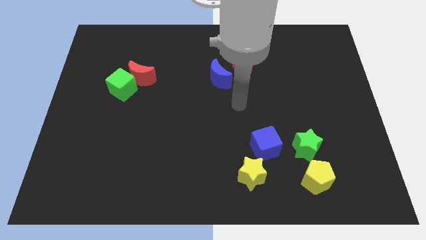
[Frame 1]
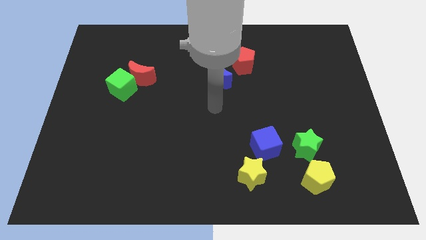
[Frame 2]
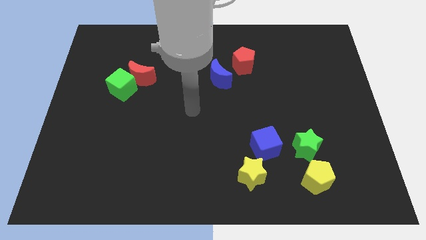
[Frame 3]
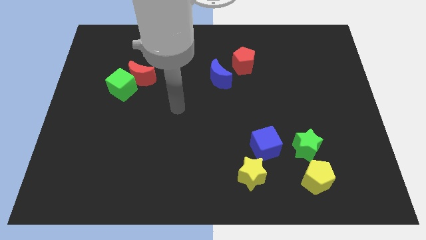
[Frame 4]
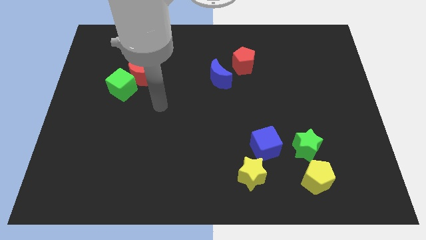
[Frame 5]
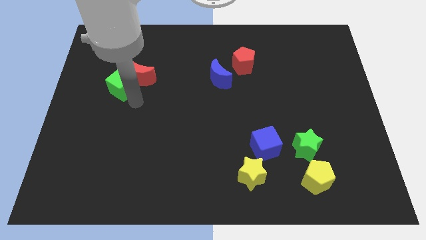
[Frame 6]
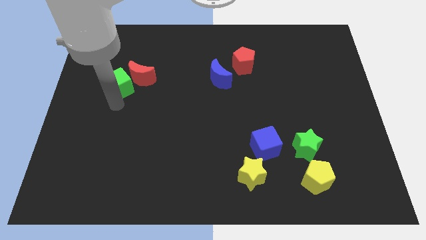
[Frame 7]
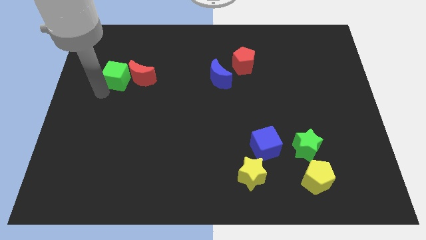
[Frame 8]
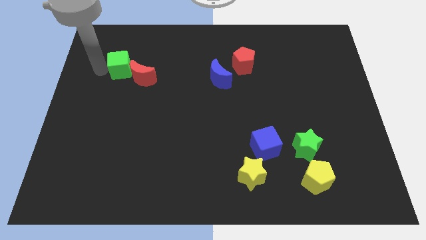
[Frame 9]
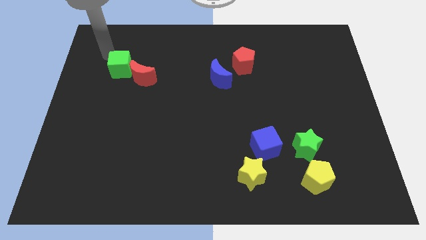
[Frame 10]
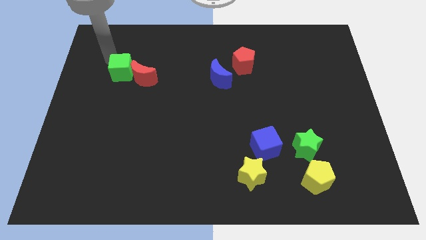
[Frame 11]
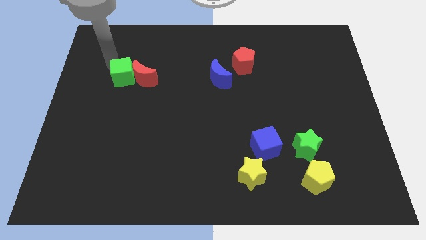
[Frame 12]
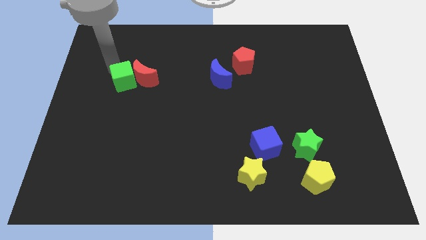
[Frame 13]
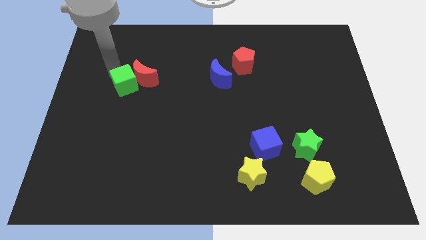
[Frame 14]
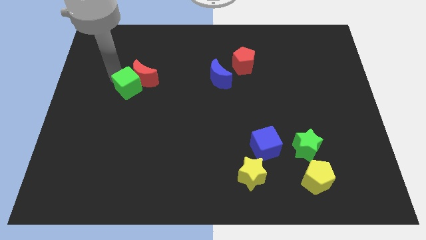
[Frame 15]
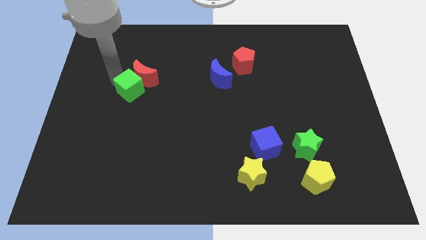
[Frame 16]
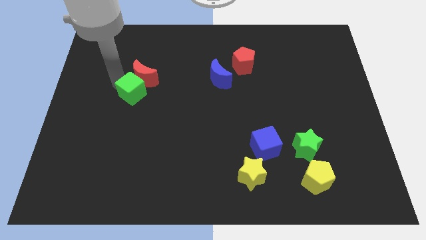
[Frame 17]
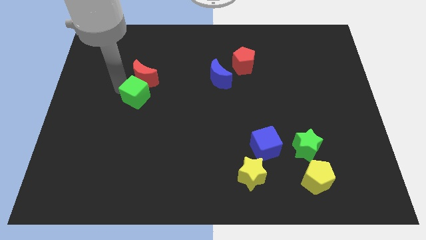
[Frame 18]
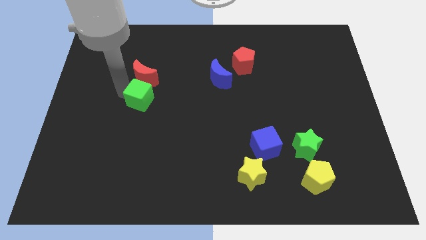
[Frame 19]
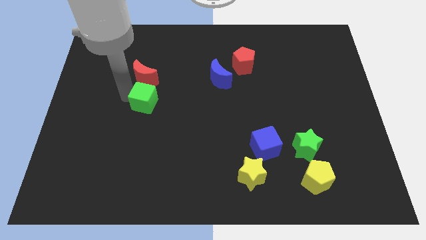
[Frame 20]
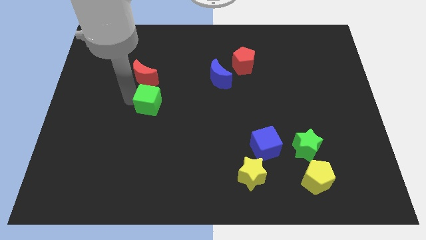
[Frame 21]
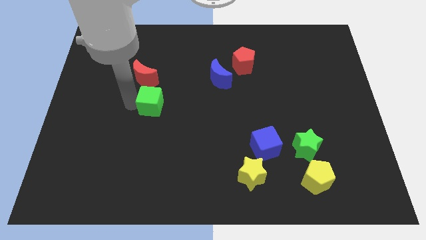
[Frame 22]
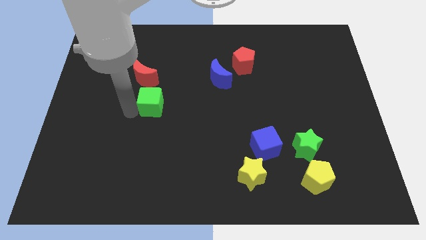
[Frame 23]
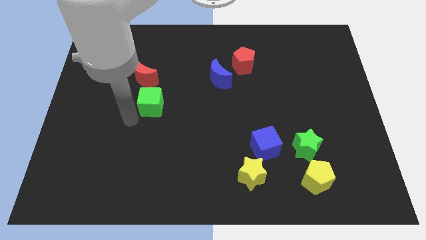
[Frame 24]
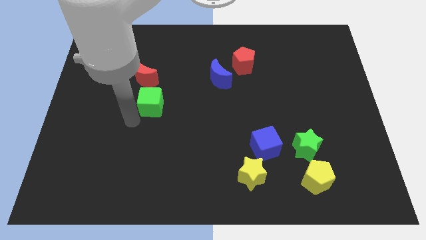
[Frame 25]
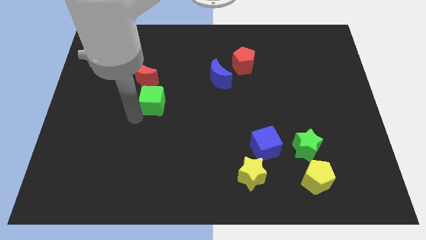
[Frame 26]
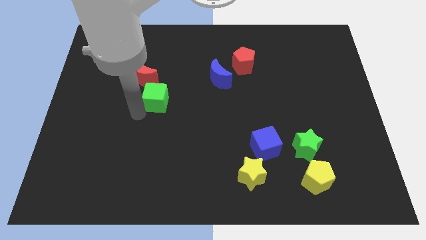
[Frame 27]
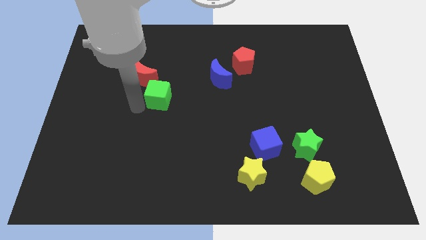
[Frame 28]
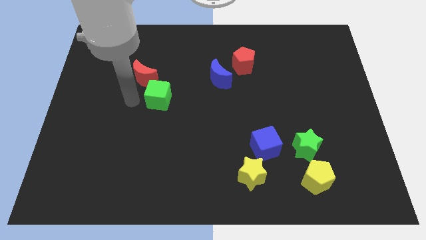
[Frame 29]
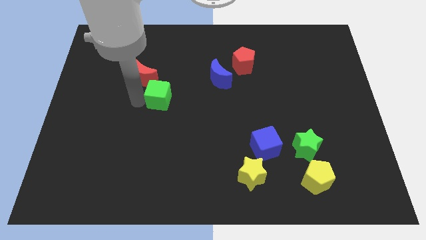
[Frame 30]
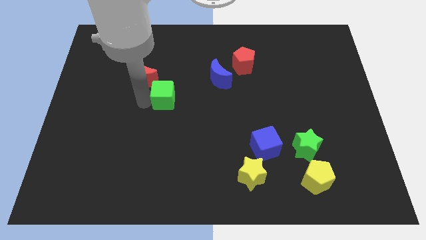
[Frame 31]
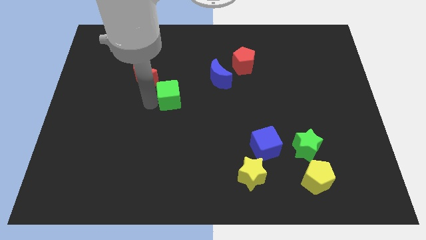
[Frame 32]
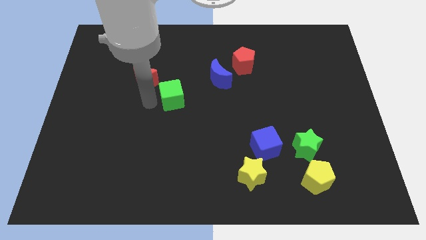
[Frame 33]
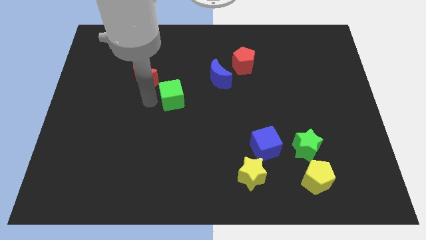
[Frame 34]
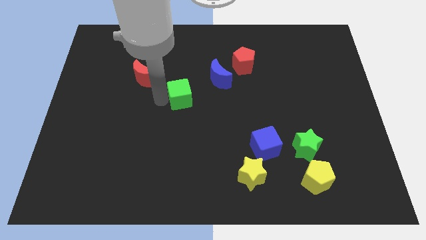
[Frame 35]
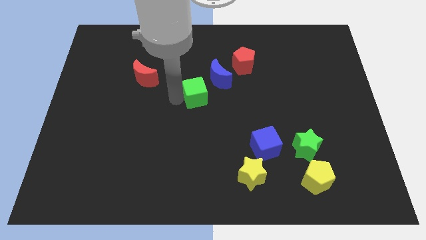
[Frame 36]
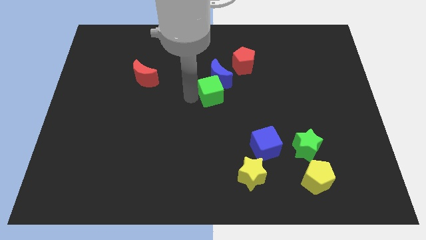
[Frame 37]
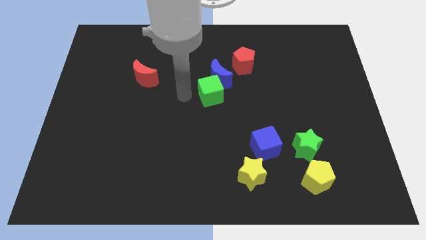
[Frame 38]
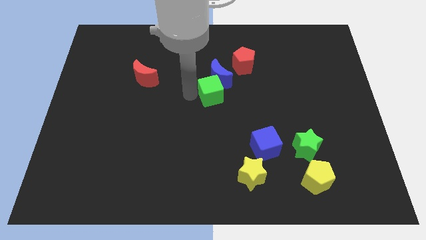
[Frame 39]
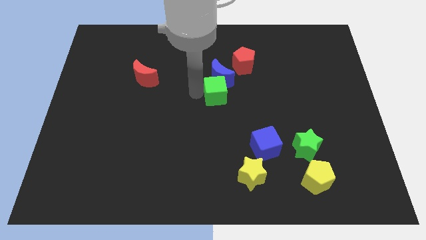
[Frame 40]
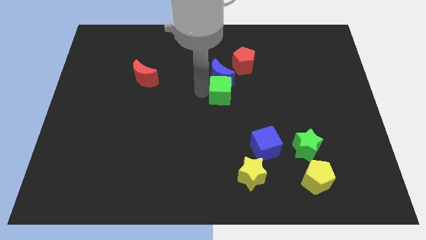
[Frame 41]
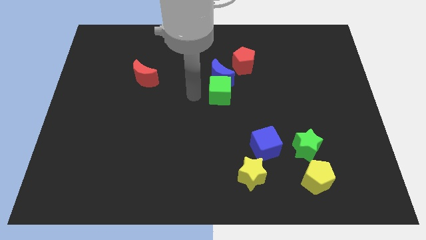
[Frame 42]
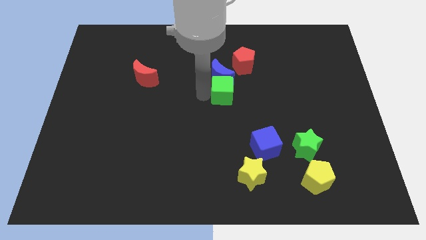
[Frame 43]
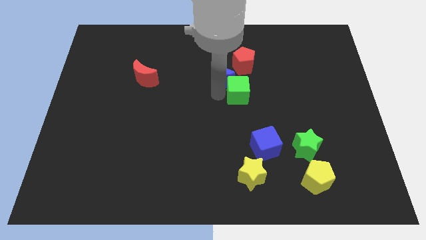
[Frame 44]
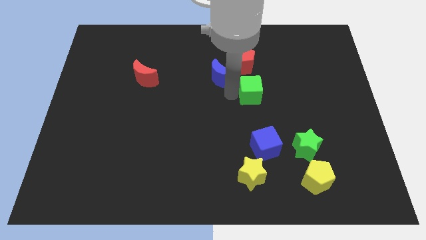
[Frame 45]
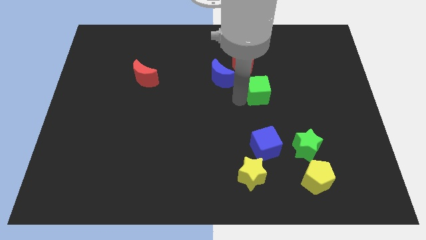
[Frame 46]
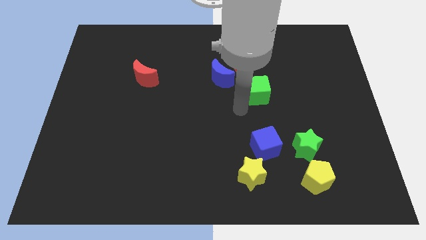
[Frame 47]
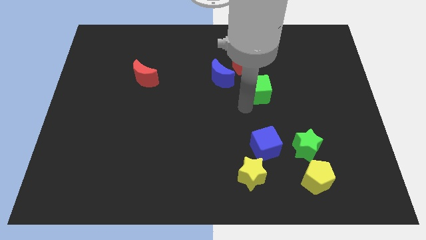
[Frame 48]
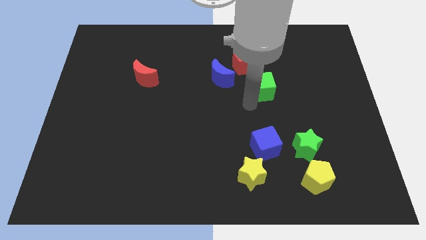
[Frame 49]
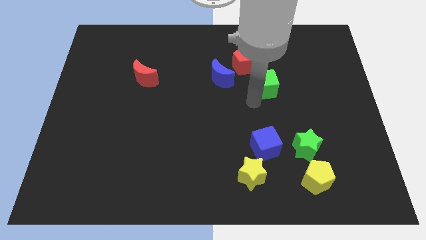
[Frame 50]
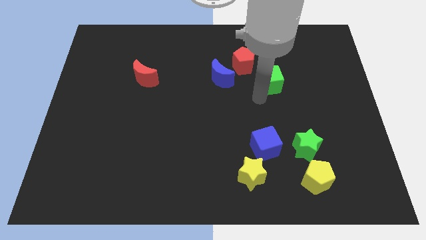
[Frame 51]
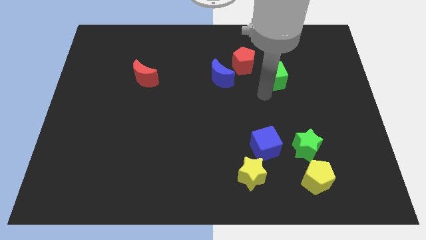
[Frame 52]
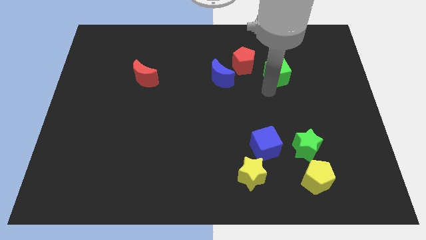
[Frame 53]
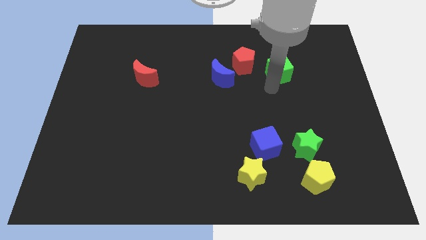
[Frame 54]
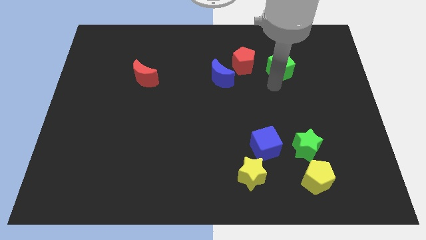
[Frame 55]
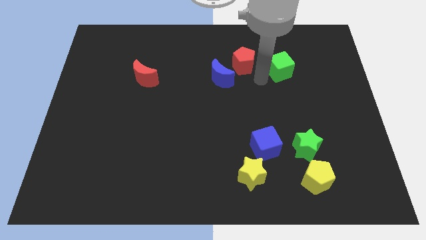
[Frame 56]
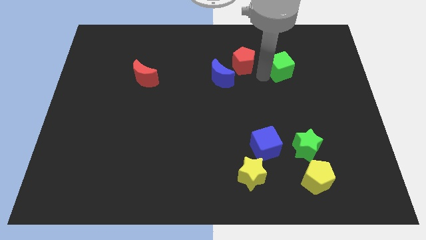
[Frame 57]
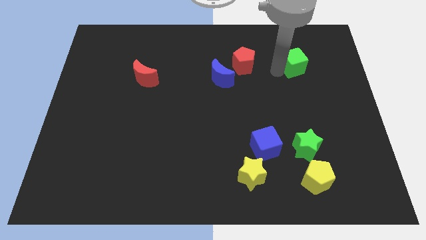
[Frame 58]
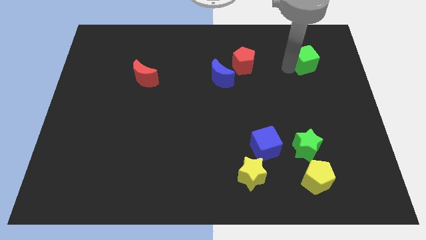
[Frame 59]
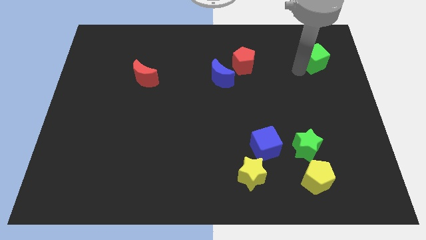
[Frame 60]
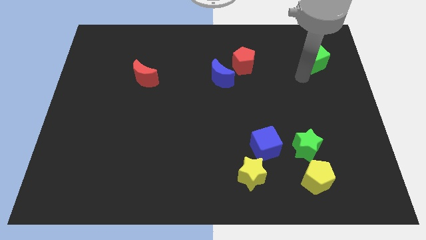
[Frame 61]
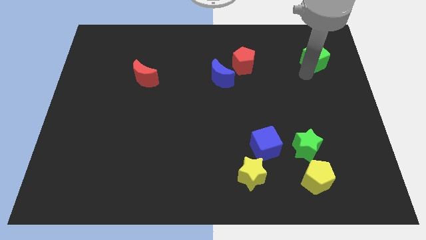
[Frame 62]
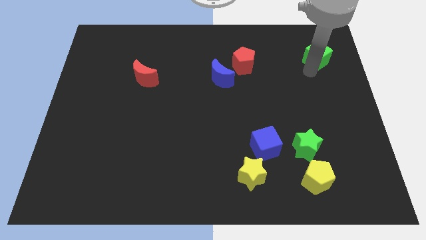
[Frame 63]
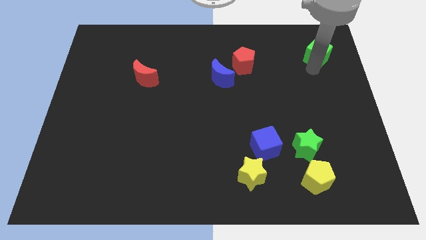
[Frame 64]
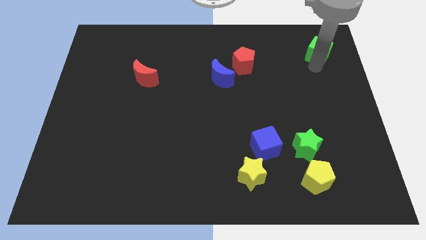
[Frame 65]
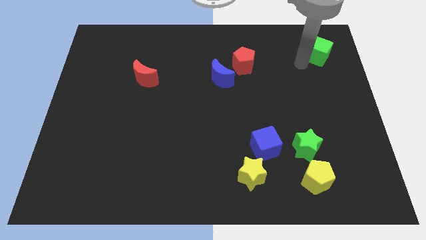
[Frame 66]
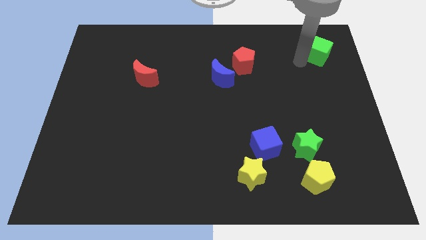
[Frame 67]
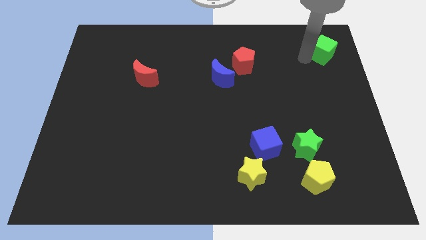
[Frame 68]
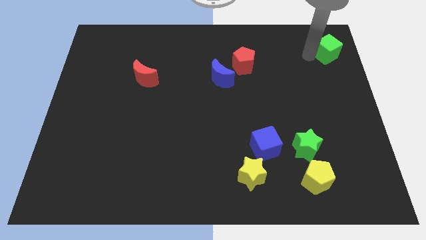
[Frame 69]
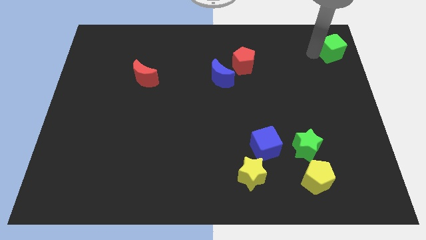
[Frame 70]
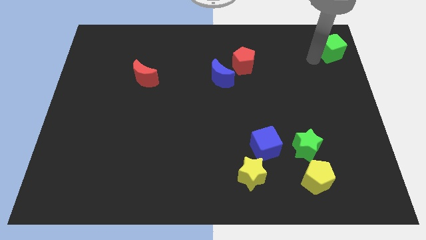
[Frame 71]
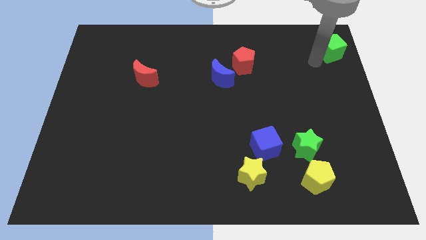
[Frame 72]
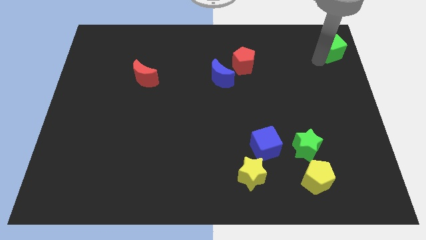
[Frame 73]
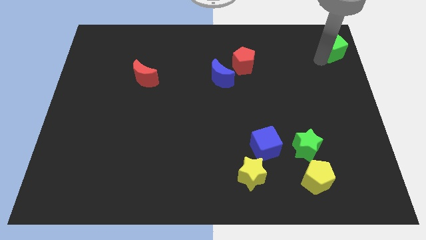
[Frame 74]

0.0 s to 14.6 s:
push the green cube to the top right corner
